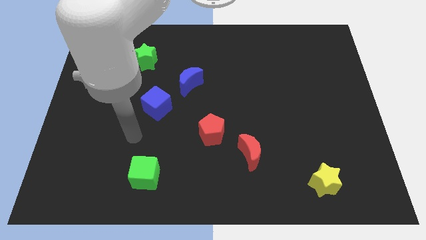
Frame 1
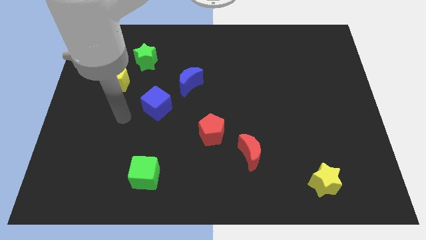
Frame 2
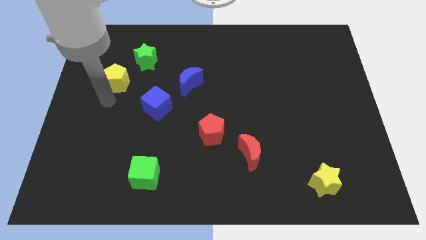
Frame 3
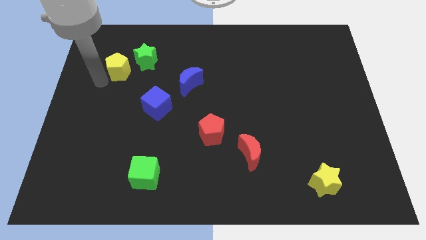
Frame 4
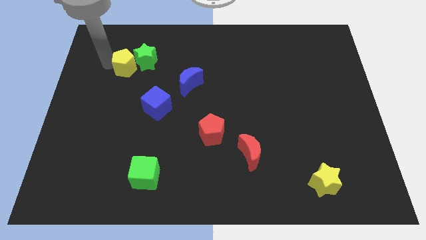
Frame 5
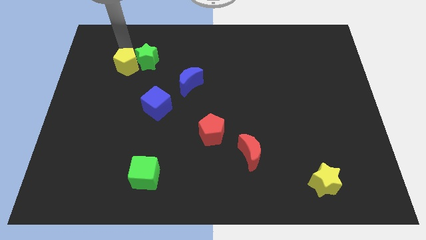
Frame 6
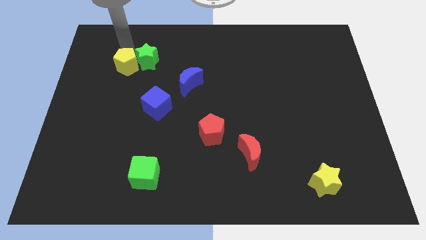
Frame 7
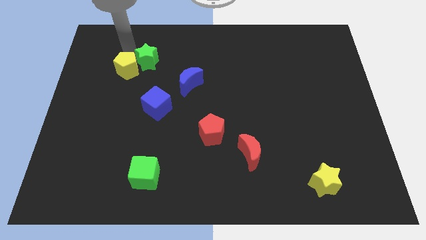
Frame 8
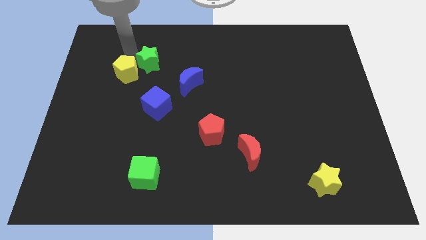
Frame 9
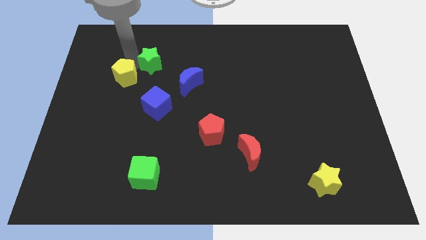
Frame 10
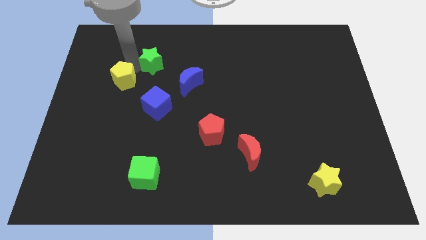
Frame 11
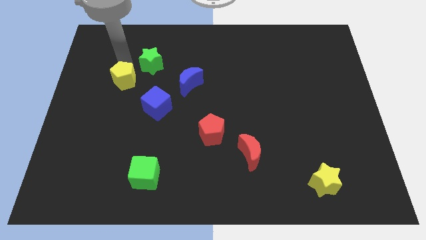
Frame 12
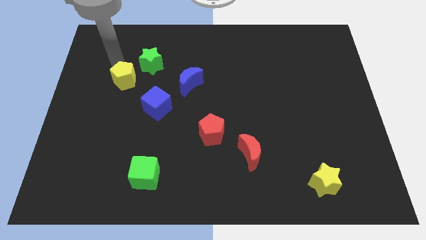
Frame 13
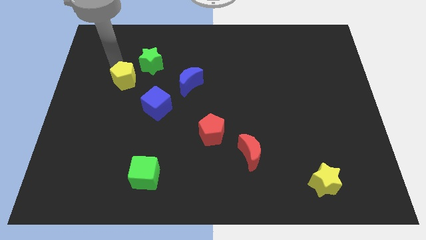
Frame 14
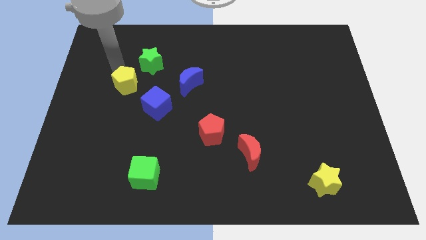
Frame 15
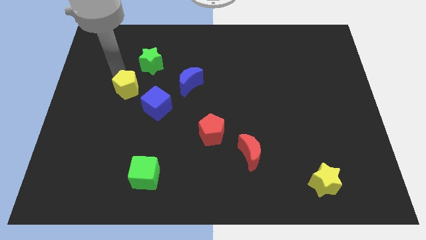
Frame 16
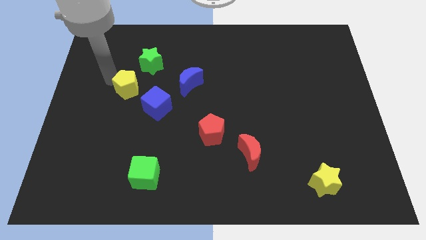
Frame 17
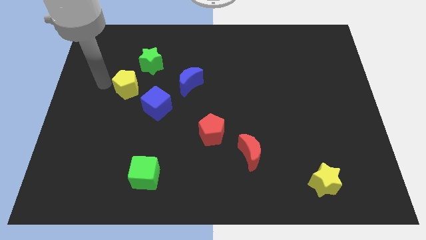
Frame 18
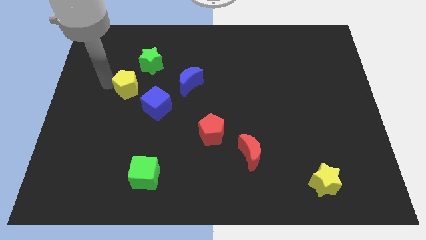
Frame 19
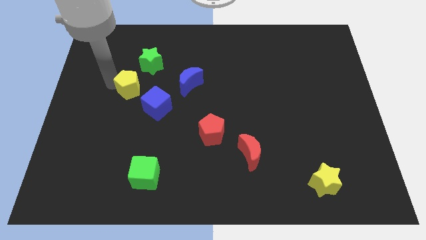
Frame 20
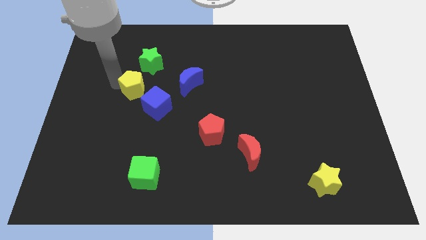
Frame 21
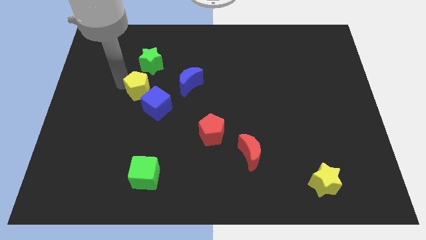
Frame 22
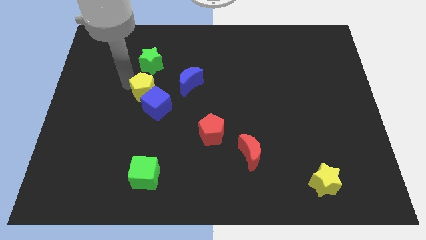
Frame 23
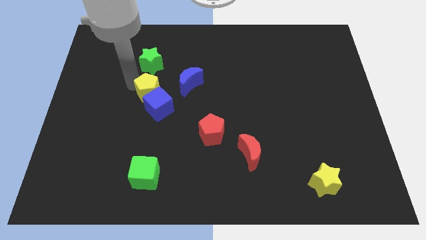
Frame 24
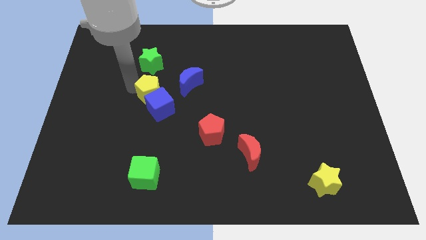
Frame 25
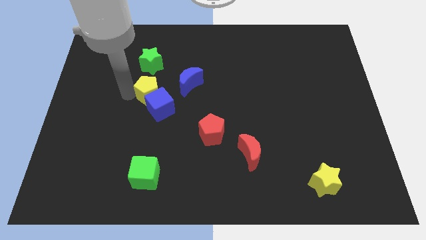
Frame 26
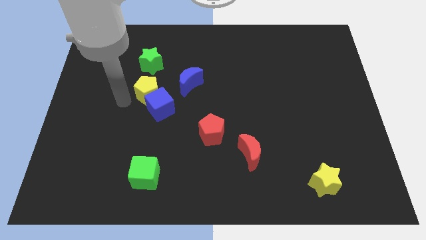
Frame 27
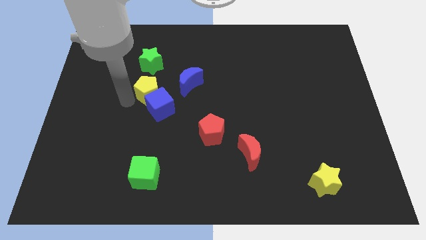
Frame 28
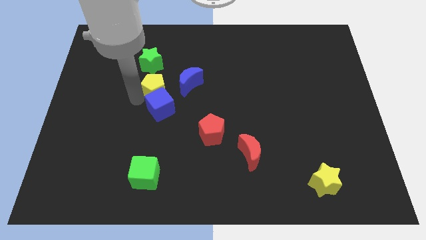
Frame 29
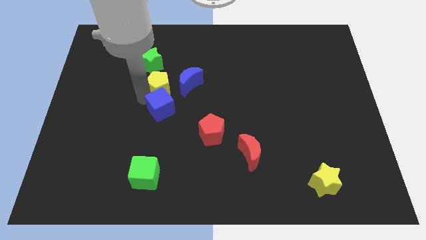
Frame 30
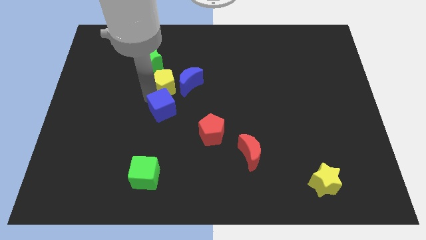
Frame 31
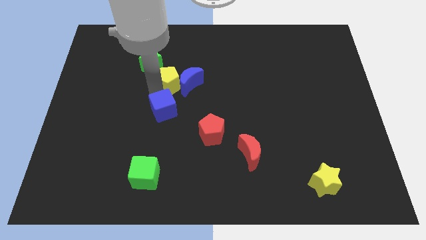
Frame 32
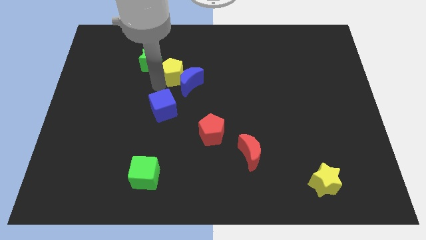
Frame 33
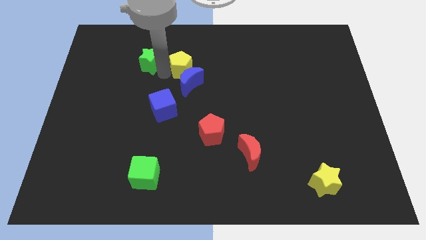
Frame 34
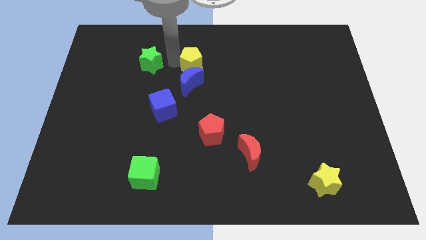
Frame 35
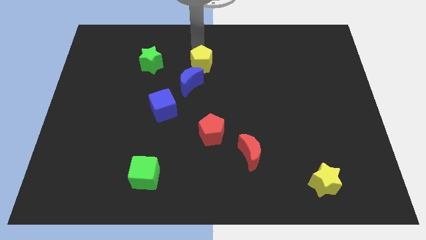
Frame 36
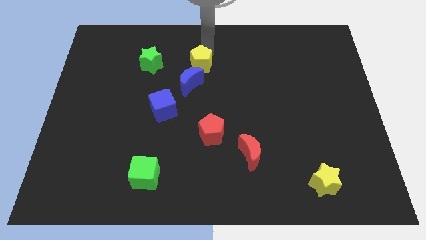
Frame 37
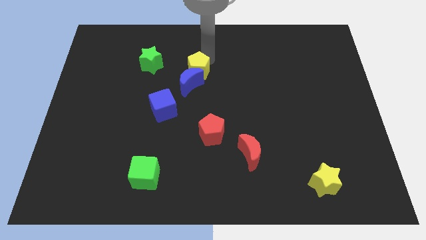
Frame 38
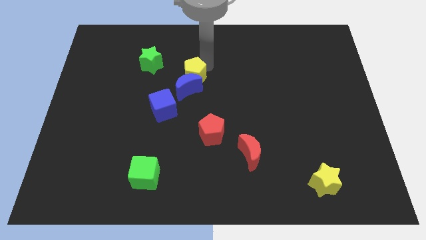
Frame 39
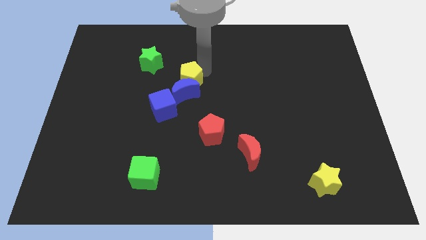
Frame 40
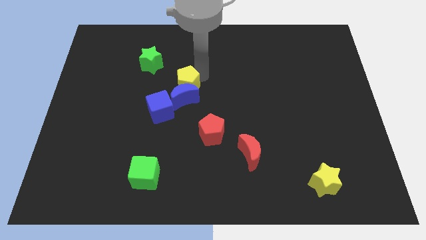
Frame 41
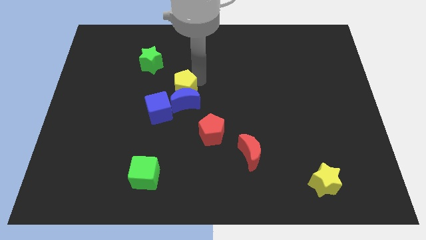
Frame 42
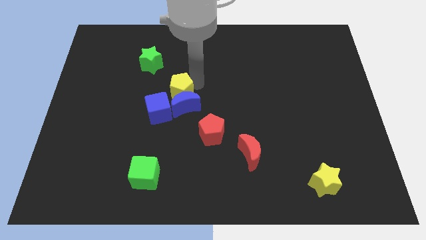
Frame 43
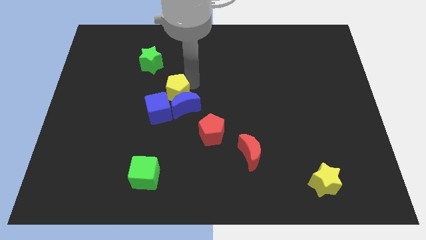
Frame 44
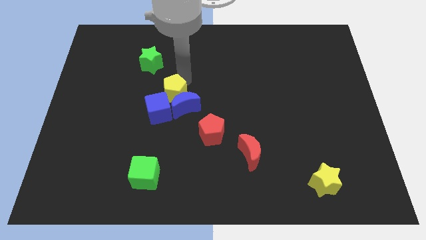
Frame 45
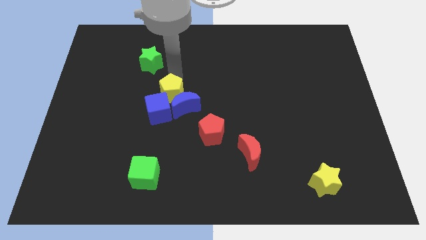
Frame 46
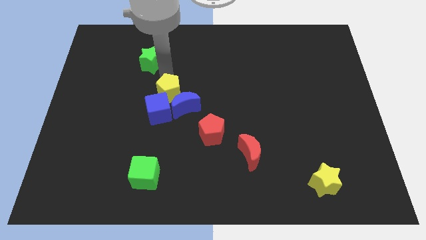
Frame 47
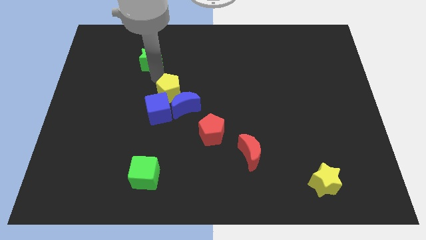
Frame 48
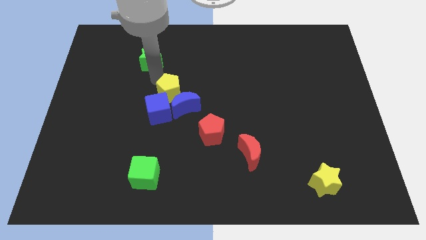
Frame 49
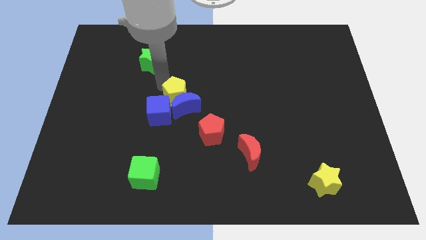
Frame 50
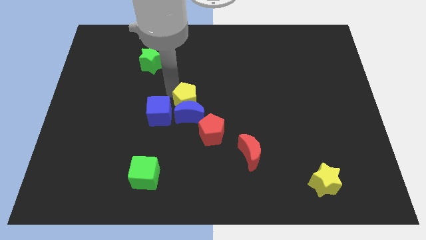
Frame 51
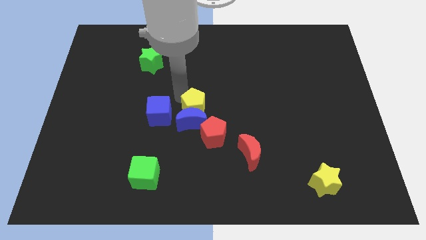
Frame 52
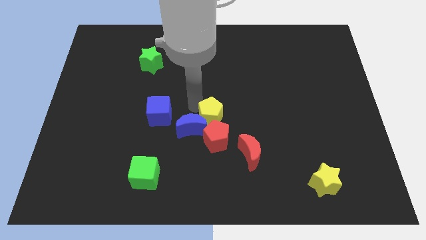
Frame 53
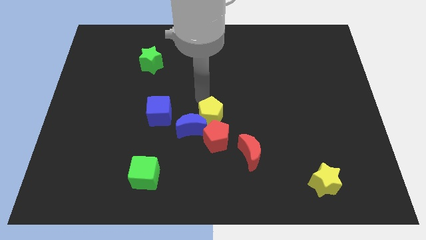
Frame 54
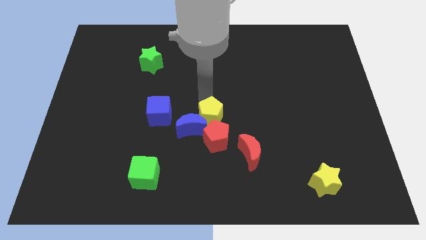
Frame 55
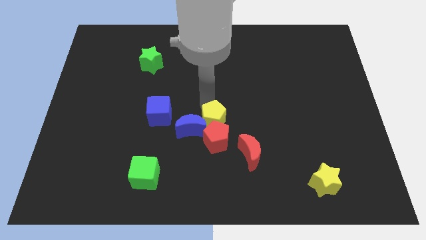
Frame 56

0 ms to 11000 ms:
push the yellow pentagon next to the red pentagon

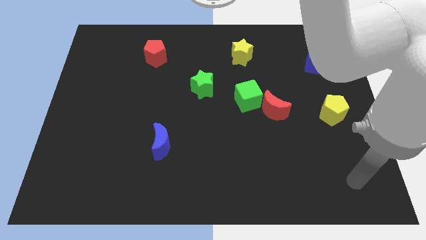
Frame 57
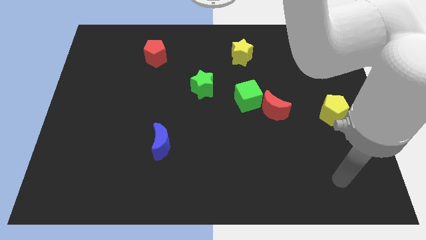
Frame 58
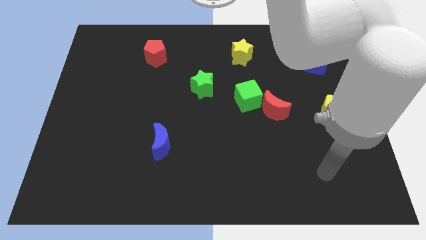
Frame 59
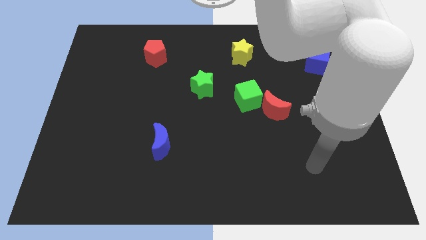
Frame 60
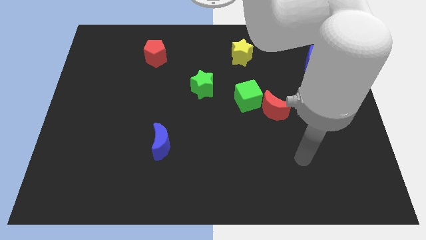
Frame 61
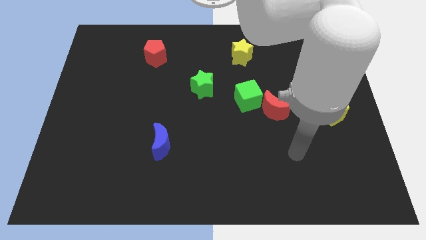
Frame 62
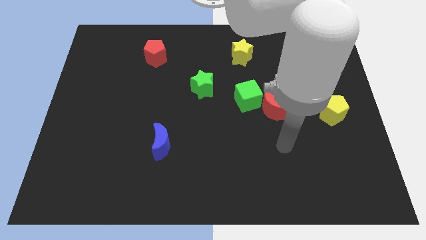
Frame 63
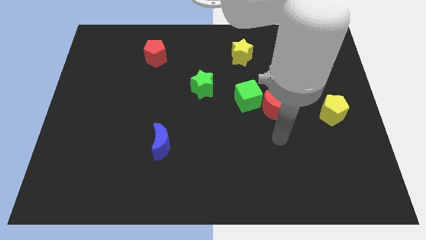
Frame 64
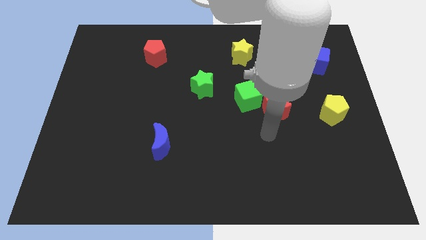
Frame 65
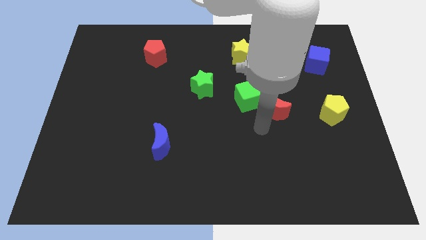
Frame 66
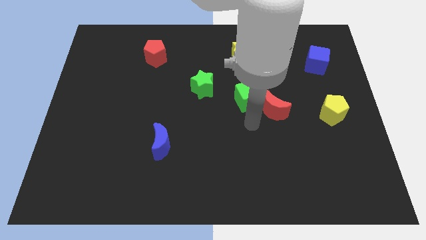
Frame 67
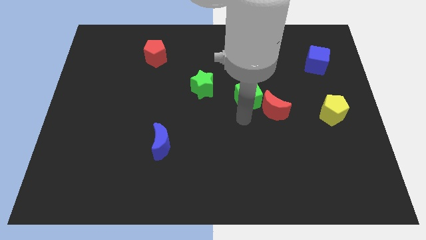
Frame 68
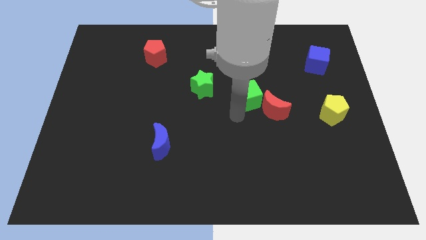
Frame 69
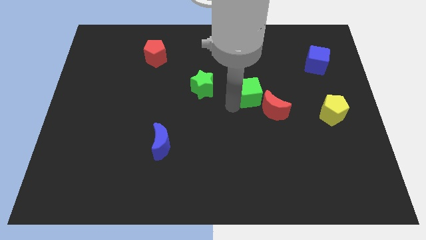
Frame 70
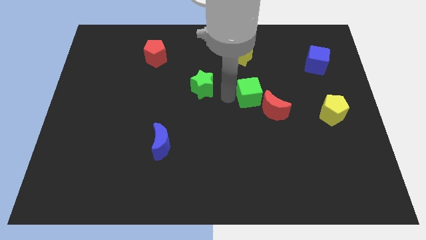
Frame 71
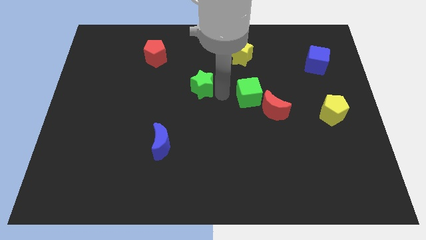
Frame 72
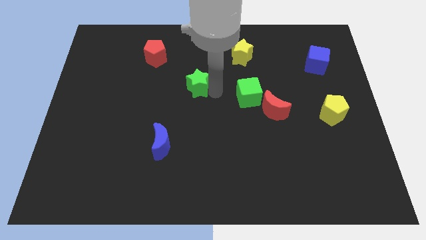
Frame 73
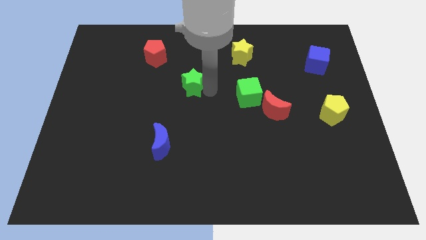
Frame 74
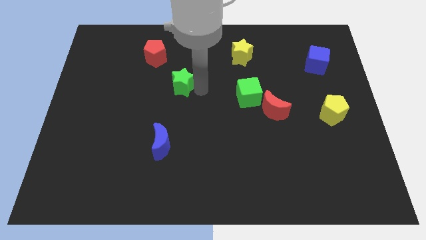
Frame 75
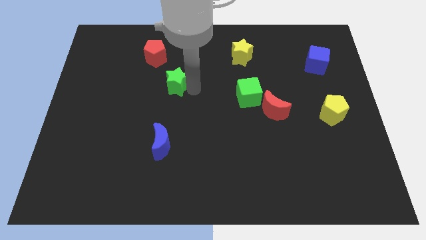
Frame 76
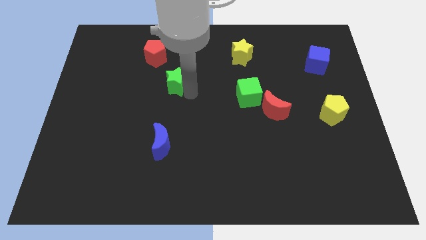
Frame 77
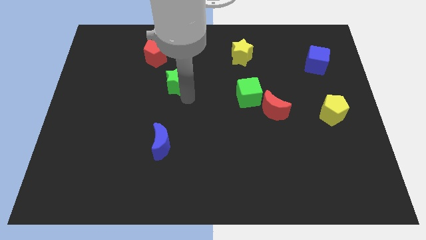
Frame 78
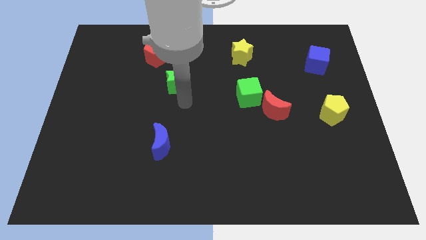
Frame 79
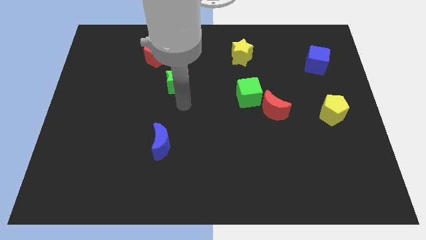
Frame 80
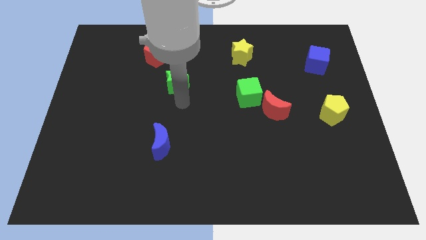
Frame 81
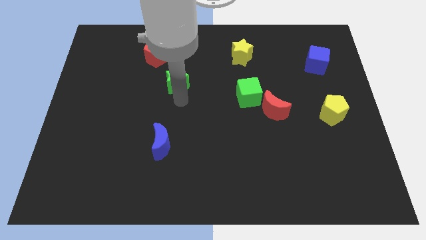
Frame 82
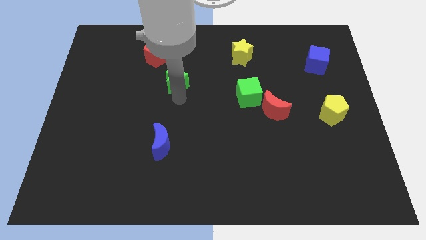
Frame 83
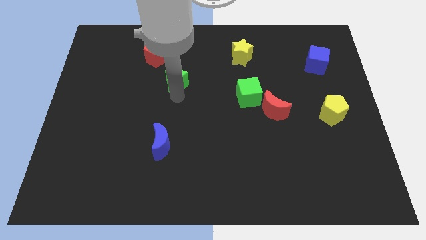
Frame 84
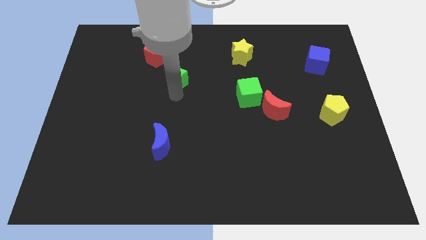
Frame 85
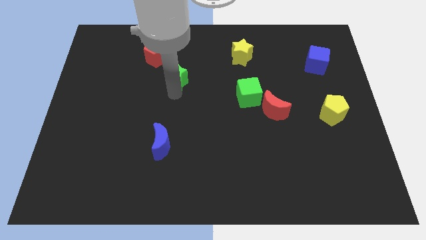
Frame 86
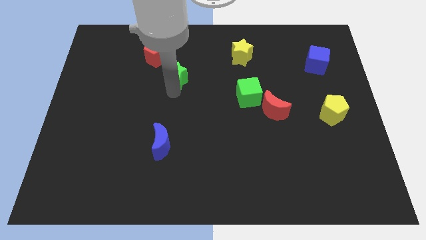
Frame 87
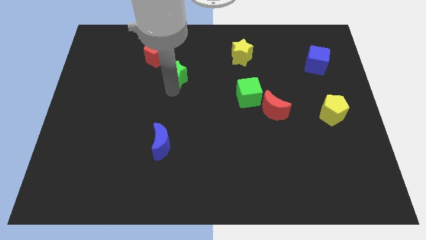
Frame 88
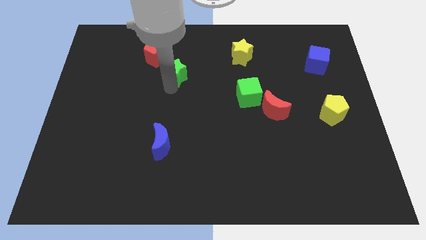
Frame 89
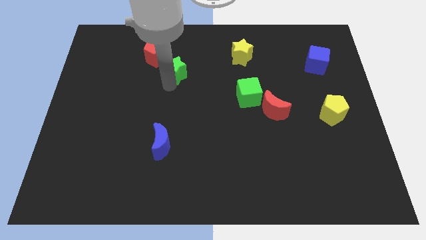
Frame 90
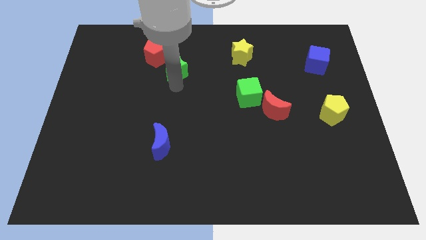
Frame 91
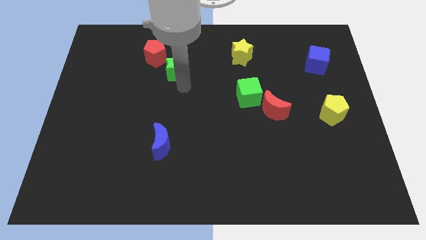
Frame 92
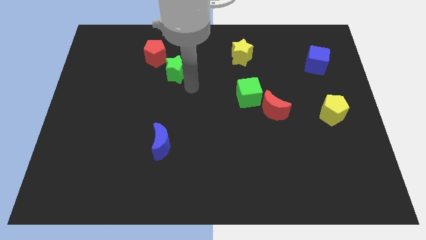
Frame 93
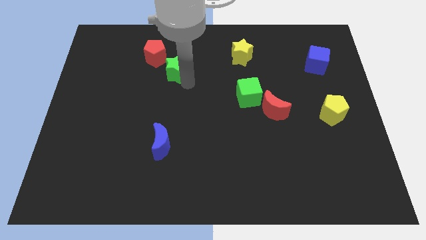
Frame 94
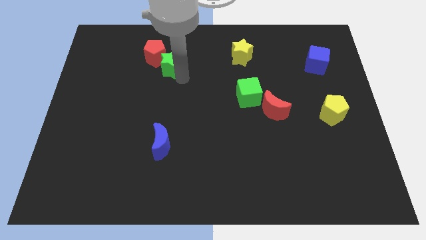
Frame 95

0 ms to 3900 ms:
slide the green star close to the red pentagon
